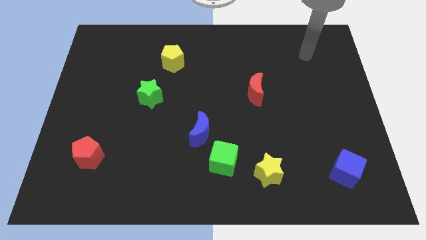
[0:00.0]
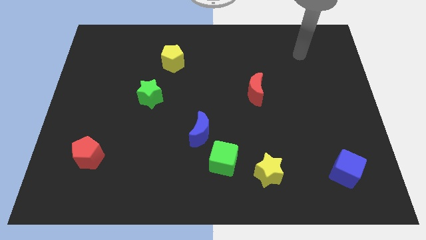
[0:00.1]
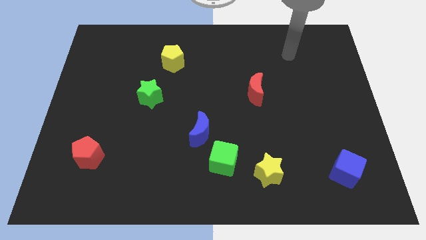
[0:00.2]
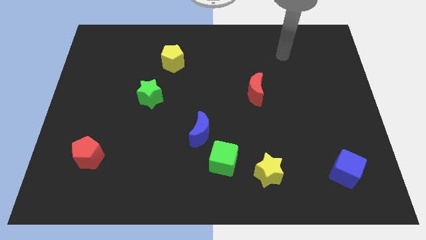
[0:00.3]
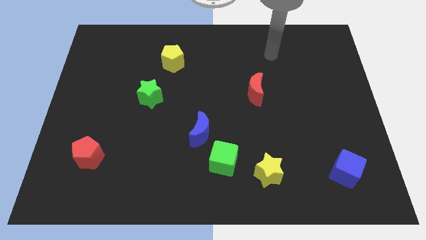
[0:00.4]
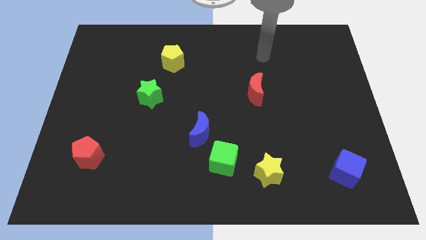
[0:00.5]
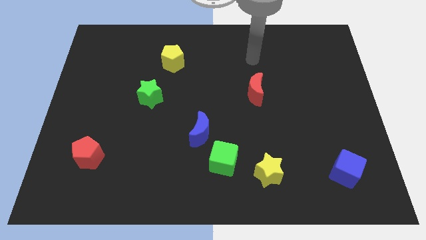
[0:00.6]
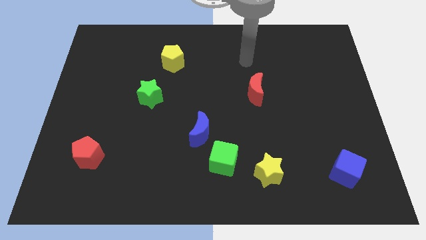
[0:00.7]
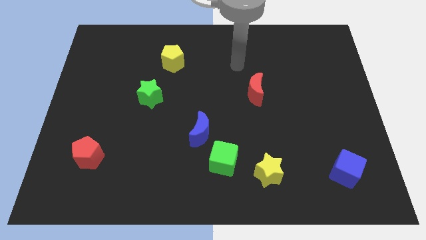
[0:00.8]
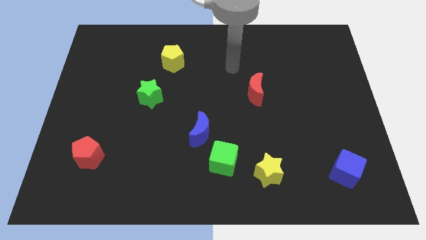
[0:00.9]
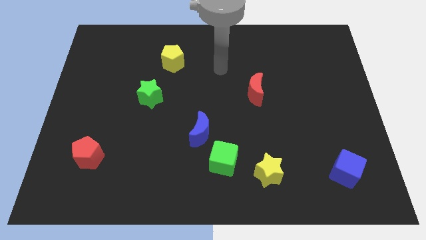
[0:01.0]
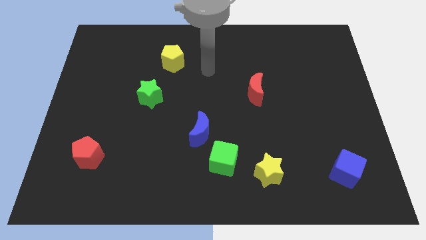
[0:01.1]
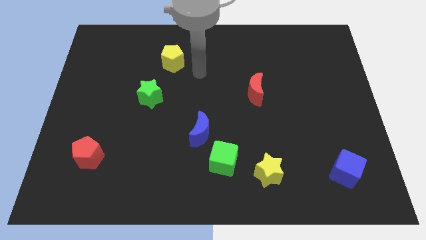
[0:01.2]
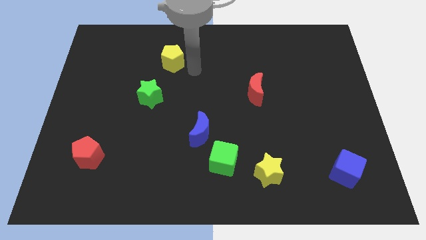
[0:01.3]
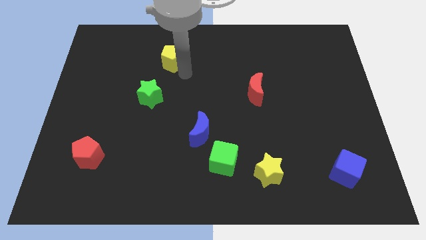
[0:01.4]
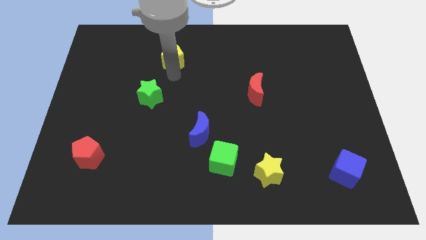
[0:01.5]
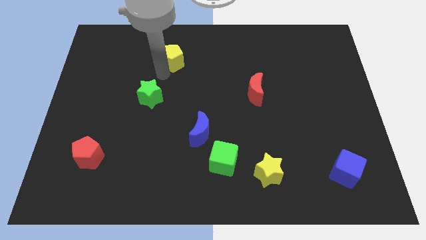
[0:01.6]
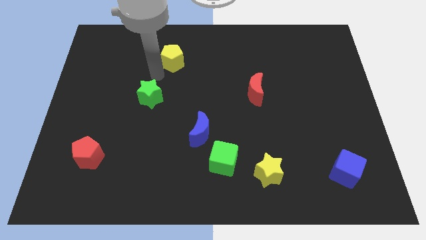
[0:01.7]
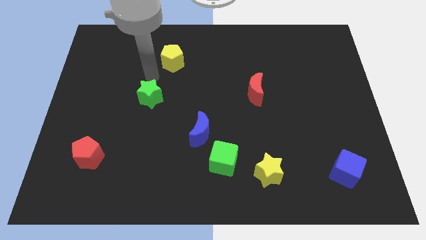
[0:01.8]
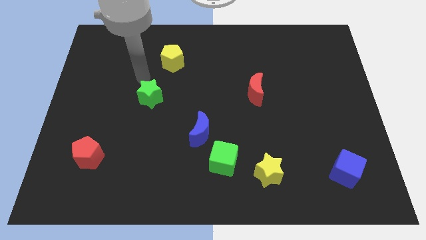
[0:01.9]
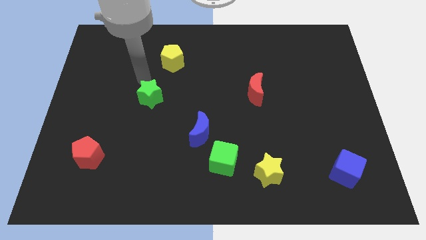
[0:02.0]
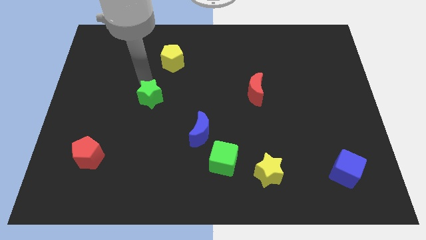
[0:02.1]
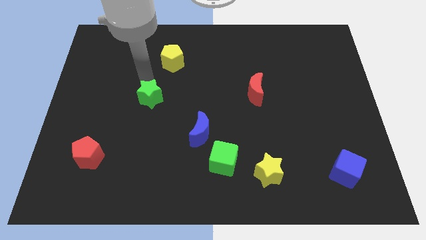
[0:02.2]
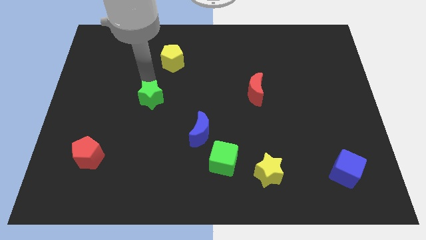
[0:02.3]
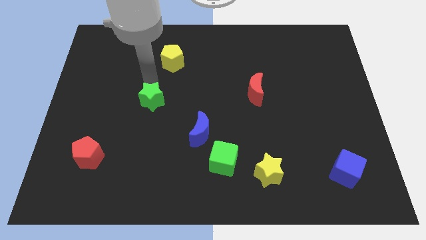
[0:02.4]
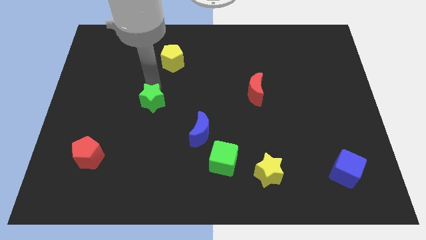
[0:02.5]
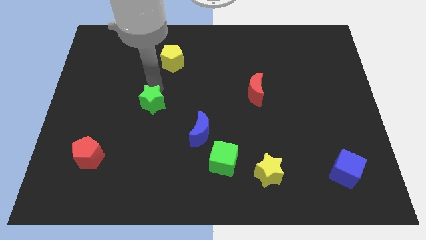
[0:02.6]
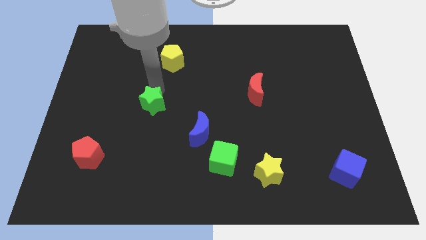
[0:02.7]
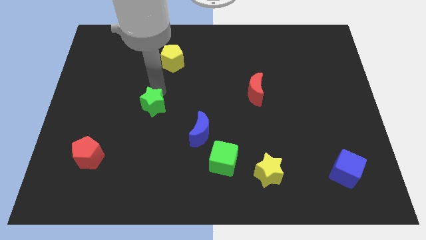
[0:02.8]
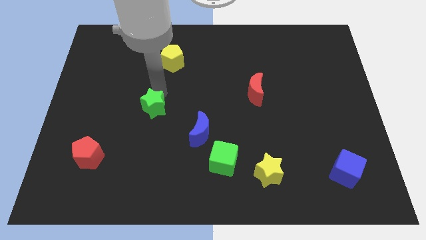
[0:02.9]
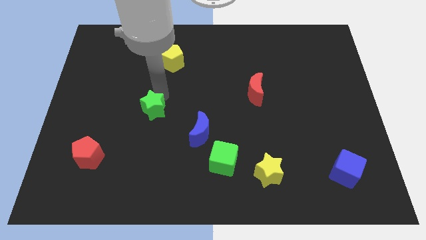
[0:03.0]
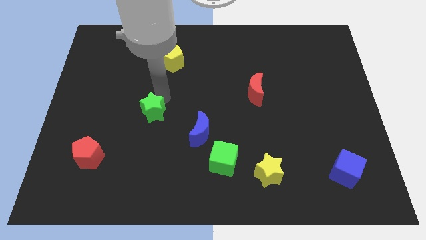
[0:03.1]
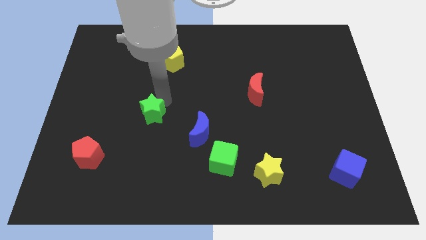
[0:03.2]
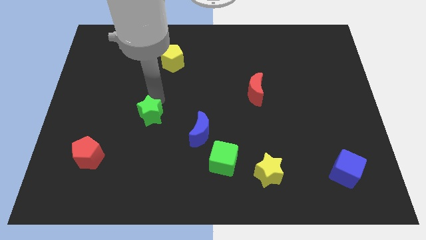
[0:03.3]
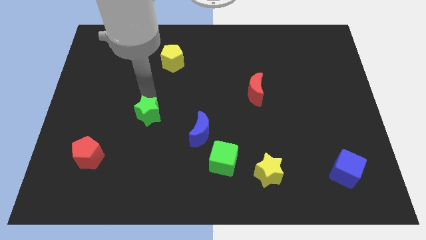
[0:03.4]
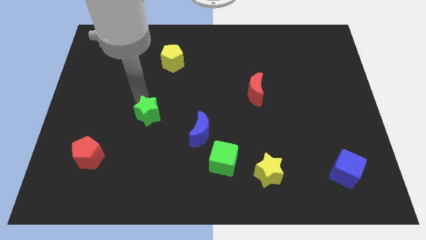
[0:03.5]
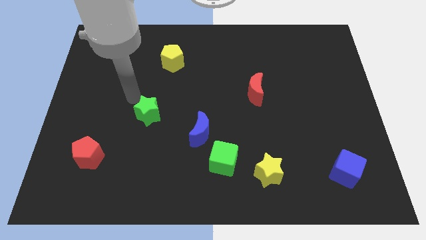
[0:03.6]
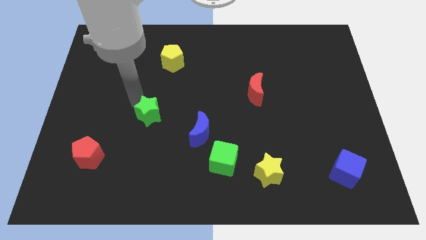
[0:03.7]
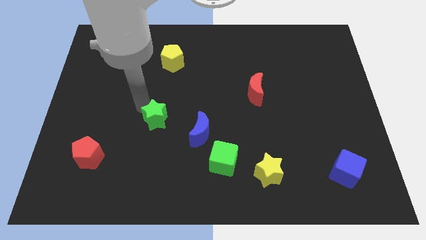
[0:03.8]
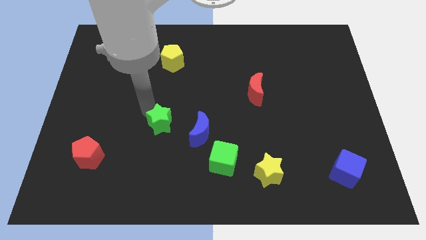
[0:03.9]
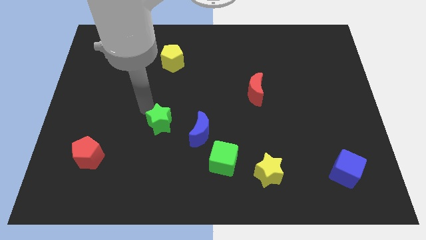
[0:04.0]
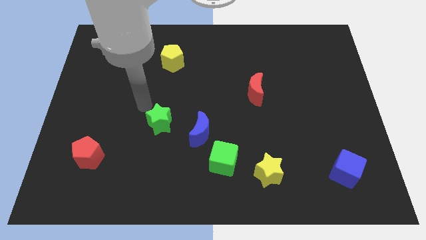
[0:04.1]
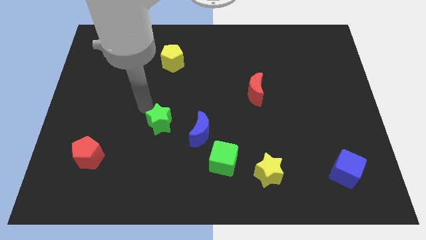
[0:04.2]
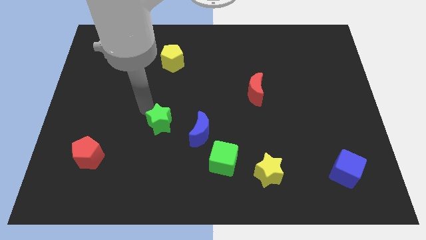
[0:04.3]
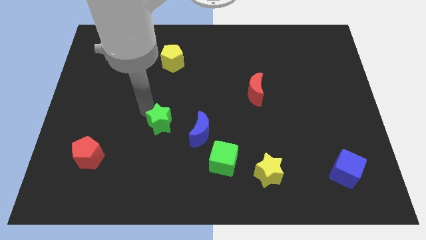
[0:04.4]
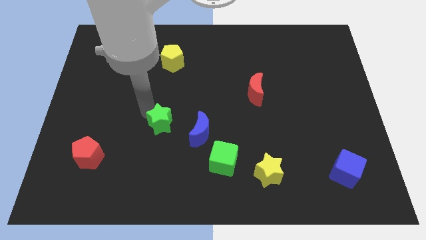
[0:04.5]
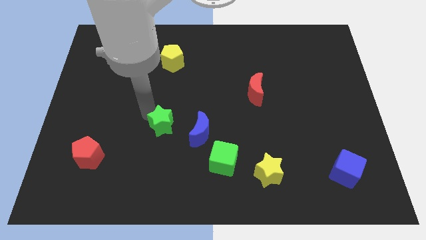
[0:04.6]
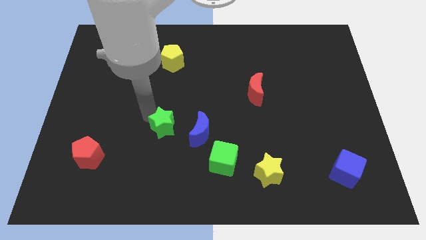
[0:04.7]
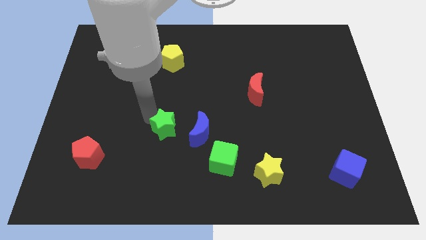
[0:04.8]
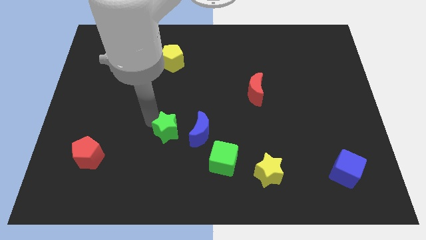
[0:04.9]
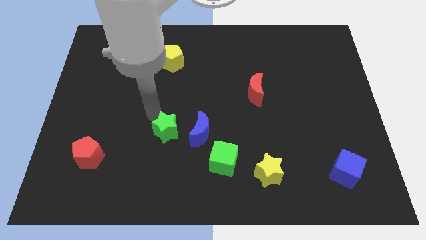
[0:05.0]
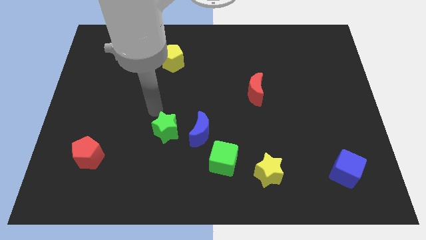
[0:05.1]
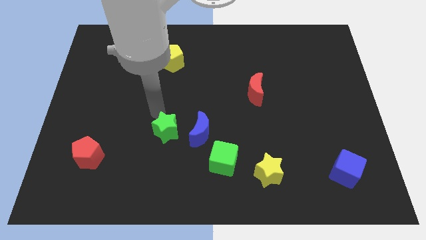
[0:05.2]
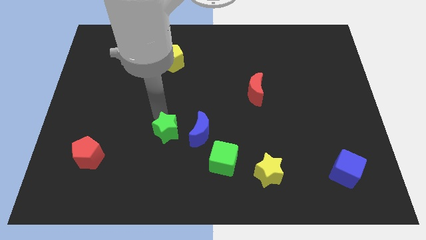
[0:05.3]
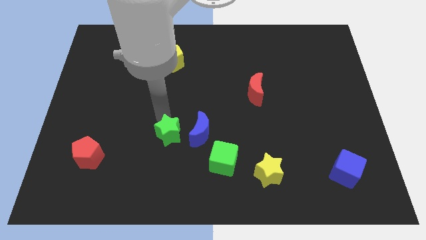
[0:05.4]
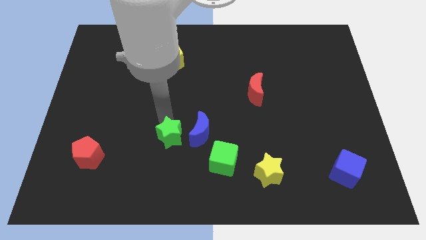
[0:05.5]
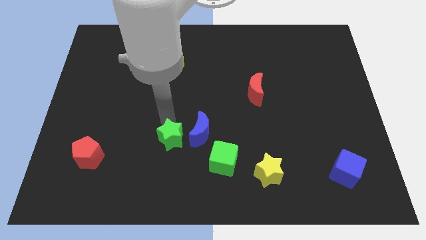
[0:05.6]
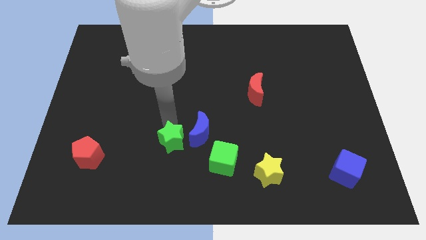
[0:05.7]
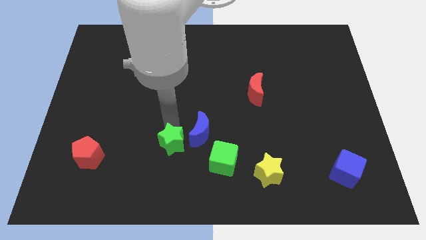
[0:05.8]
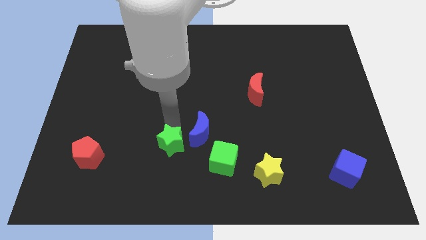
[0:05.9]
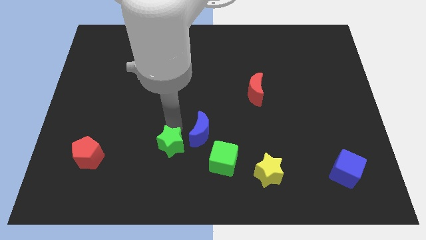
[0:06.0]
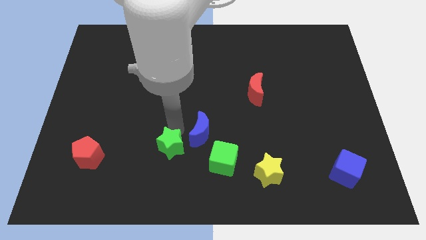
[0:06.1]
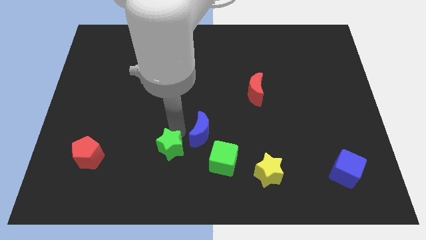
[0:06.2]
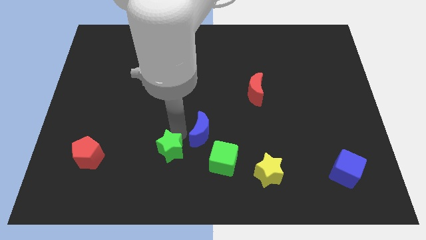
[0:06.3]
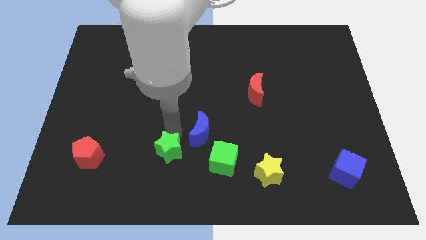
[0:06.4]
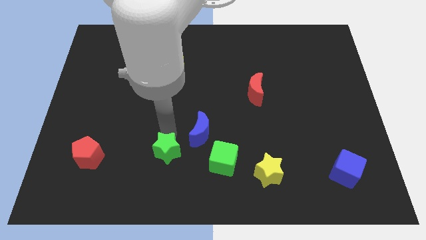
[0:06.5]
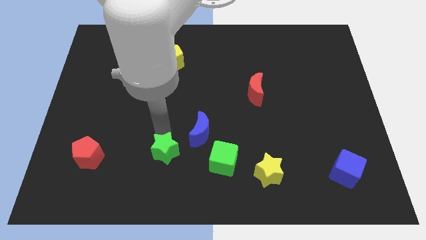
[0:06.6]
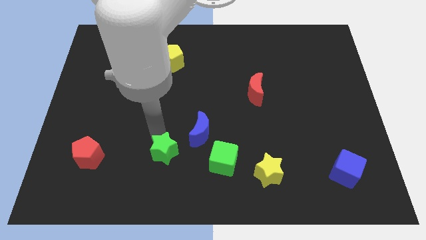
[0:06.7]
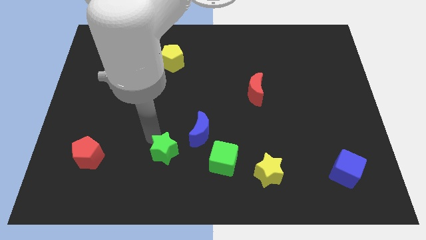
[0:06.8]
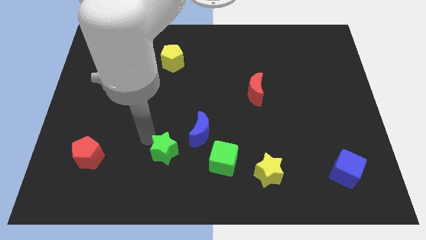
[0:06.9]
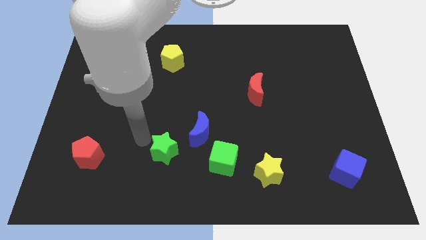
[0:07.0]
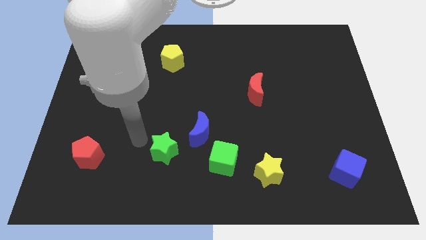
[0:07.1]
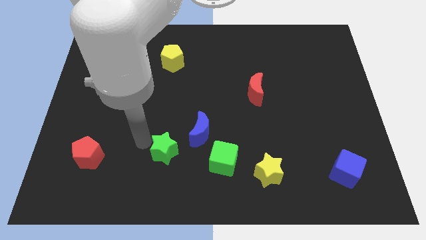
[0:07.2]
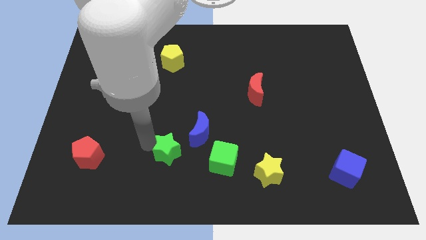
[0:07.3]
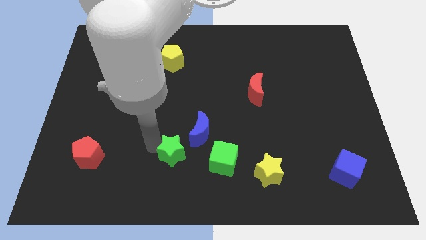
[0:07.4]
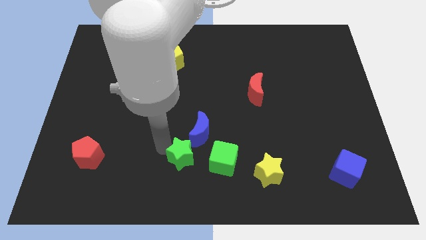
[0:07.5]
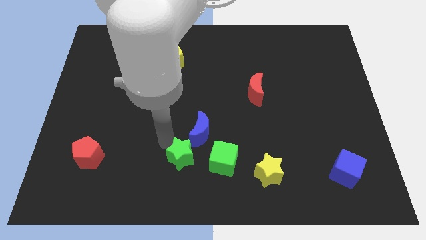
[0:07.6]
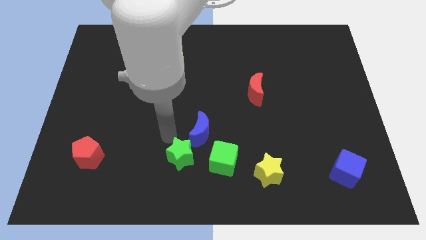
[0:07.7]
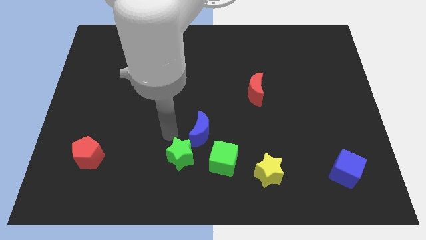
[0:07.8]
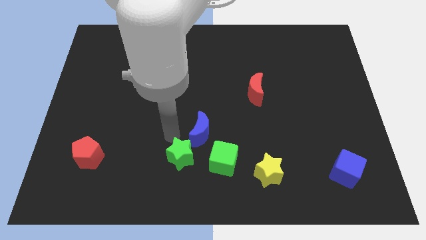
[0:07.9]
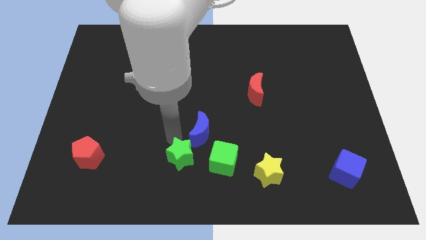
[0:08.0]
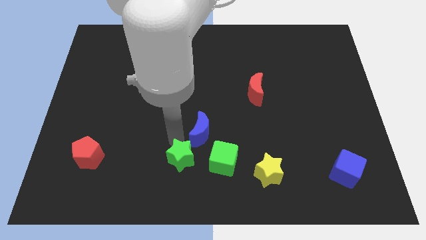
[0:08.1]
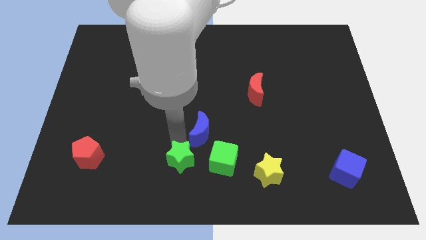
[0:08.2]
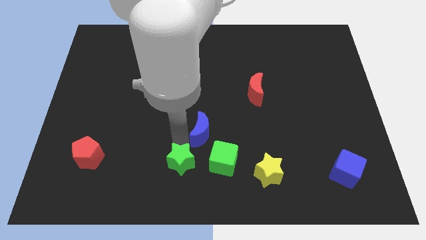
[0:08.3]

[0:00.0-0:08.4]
move the green star to the bottom side
